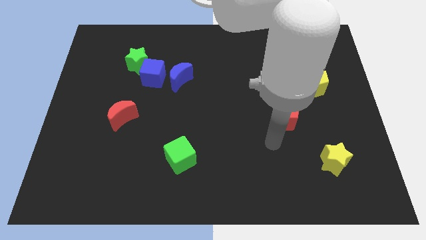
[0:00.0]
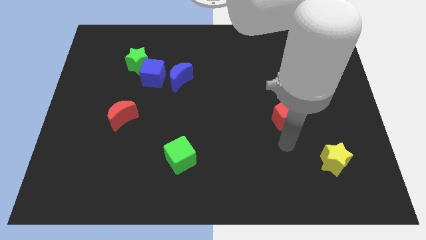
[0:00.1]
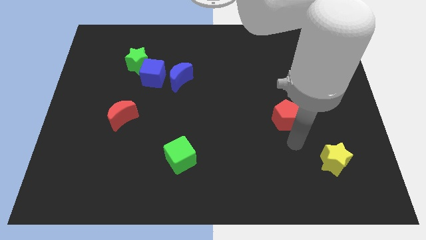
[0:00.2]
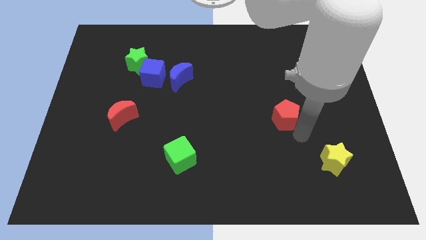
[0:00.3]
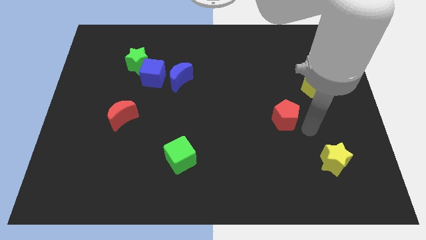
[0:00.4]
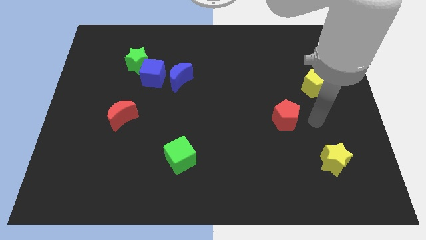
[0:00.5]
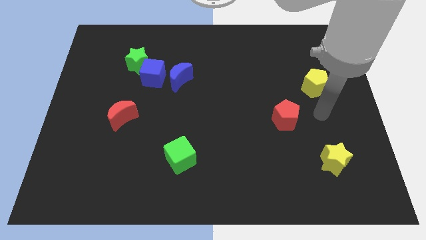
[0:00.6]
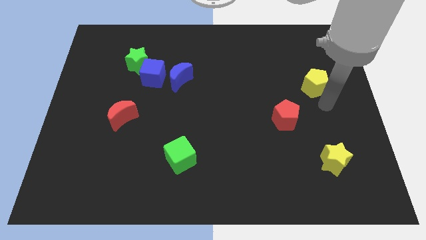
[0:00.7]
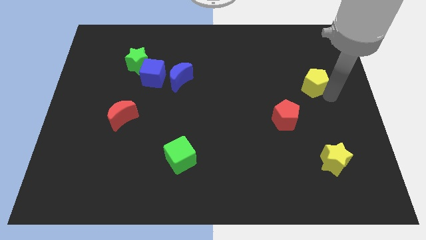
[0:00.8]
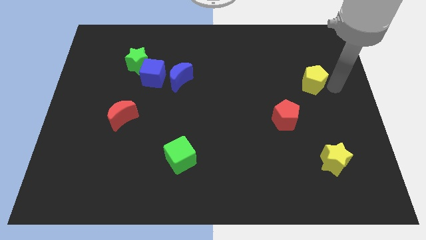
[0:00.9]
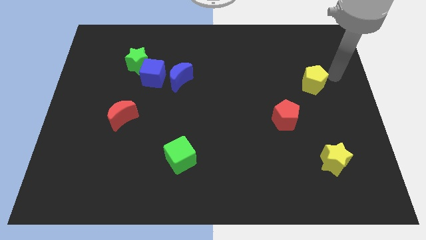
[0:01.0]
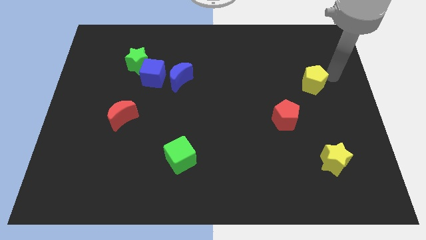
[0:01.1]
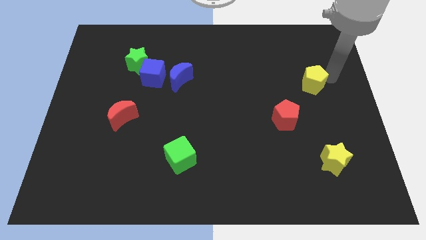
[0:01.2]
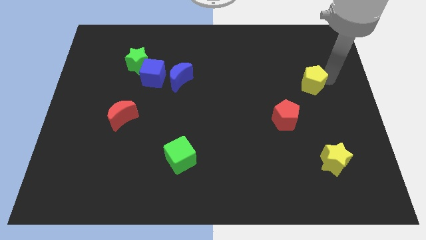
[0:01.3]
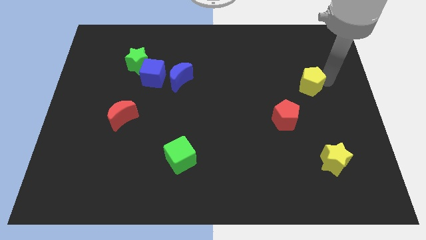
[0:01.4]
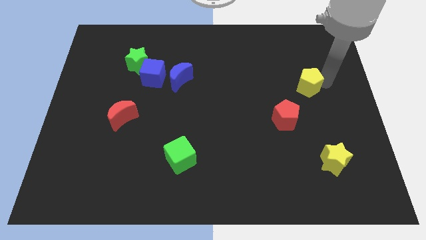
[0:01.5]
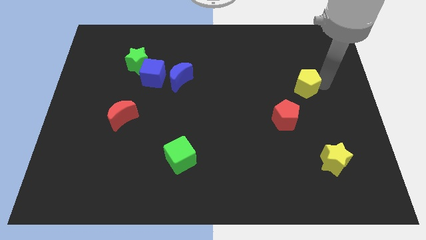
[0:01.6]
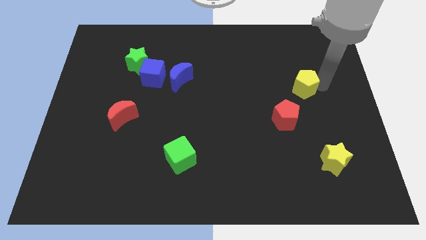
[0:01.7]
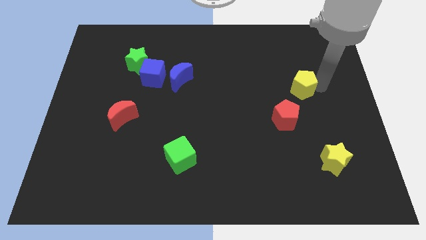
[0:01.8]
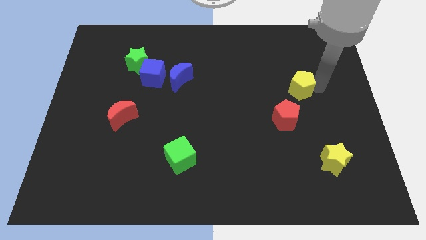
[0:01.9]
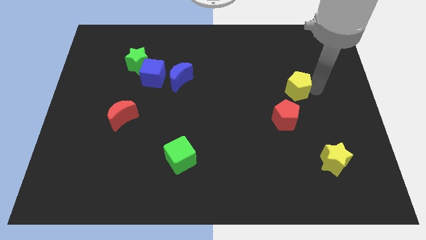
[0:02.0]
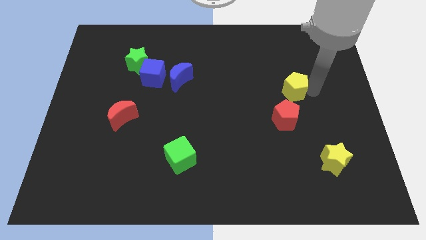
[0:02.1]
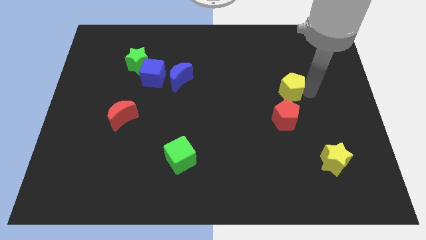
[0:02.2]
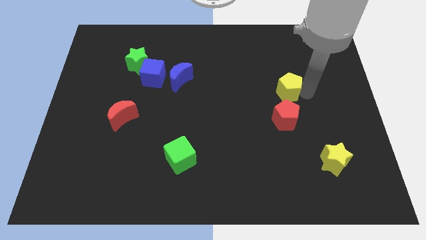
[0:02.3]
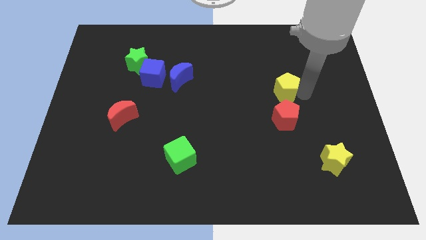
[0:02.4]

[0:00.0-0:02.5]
push the yellow pentagon to the left somewhat

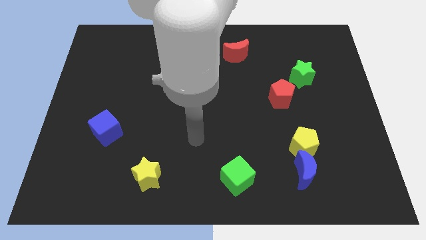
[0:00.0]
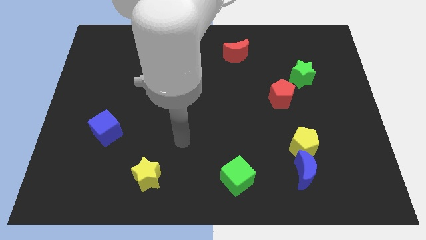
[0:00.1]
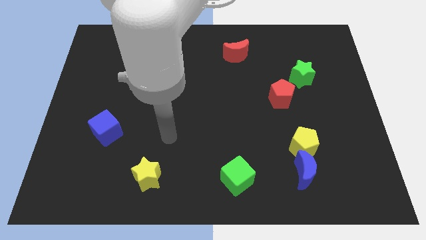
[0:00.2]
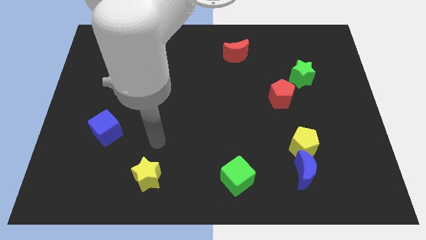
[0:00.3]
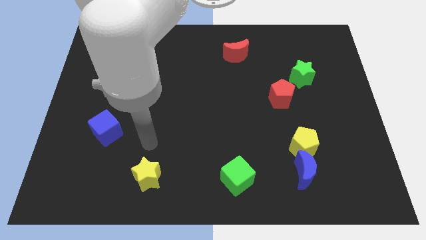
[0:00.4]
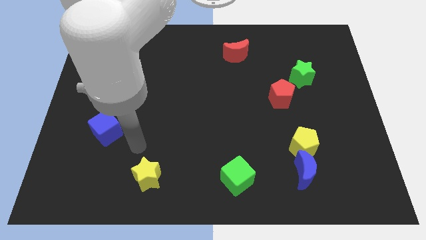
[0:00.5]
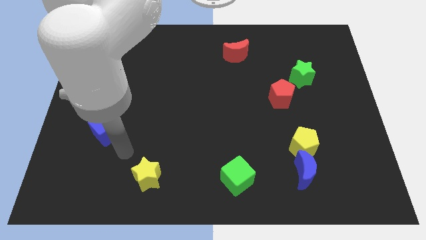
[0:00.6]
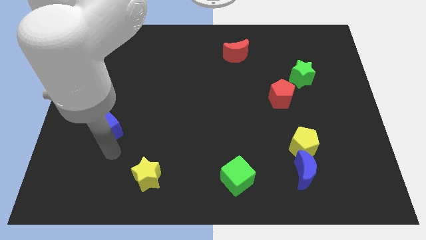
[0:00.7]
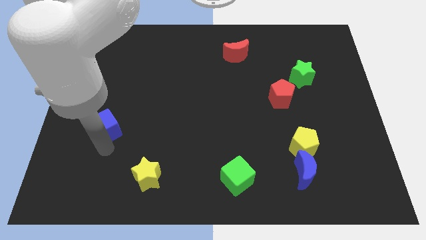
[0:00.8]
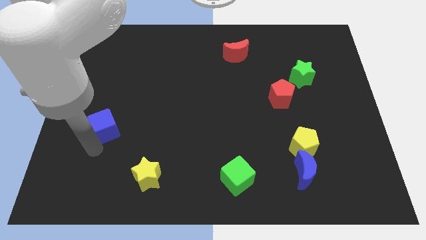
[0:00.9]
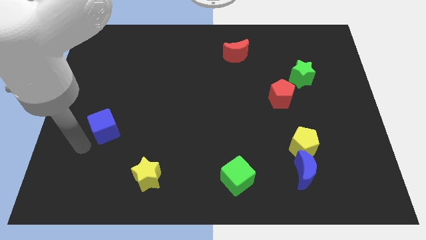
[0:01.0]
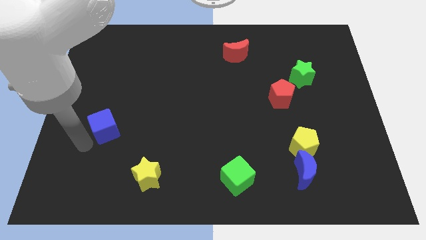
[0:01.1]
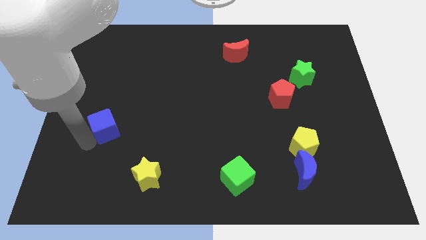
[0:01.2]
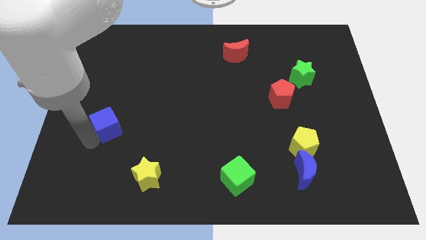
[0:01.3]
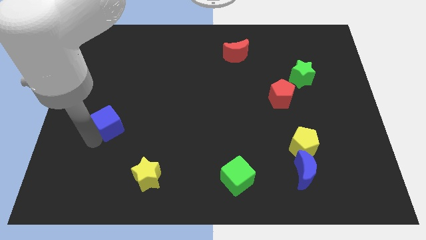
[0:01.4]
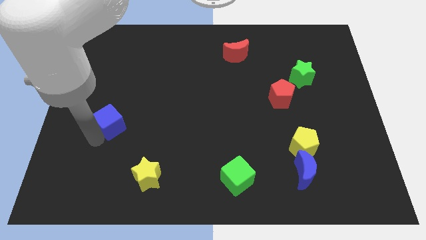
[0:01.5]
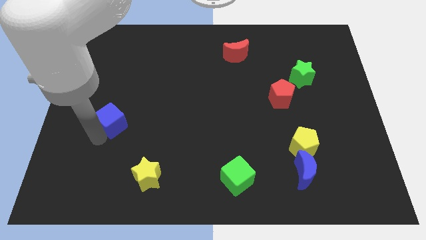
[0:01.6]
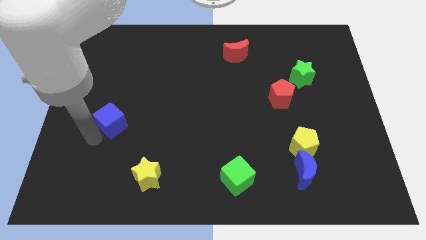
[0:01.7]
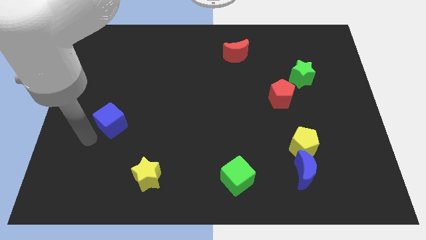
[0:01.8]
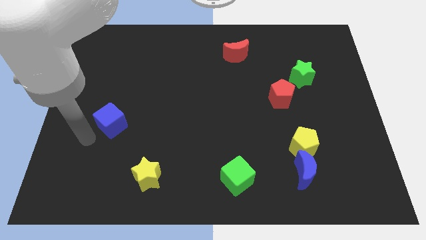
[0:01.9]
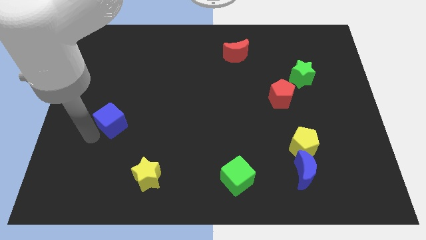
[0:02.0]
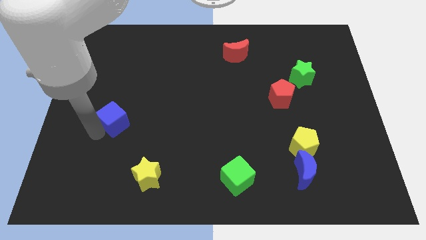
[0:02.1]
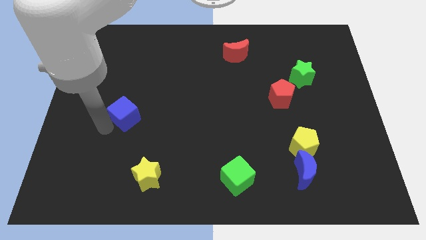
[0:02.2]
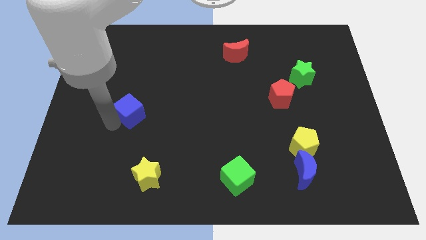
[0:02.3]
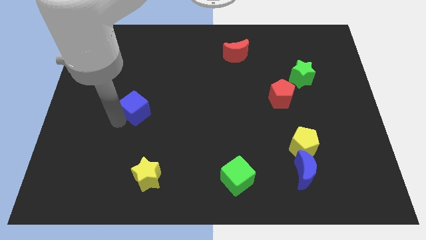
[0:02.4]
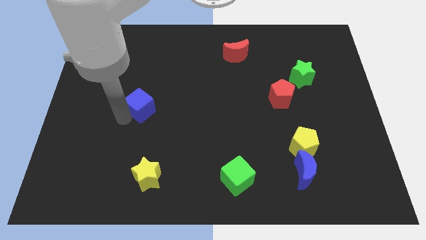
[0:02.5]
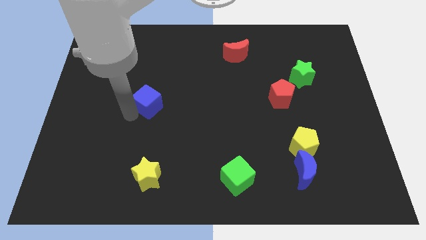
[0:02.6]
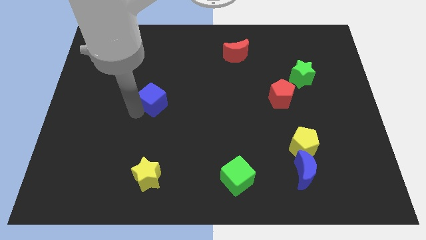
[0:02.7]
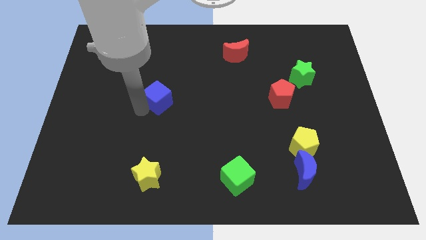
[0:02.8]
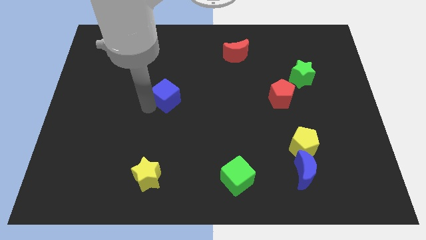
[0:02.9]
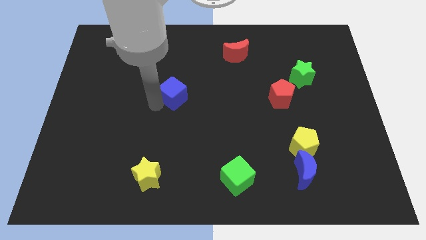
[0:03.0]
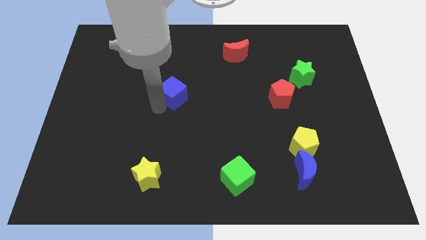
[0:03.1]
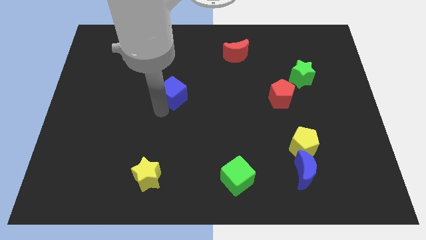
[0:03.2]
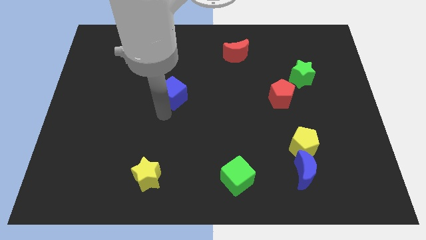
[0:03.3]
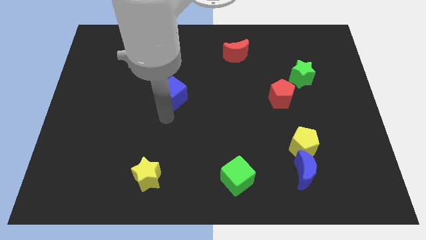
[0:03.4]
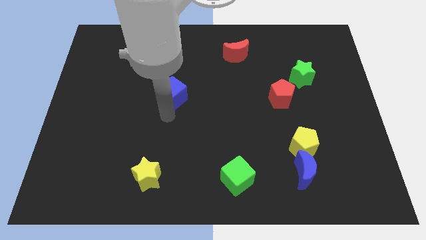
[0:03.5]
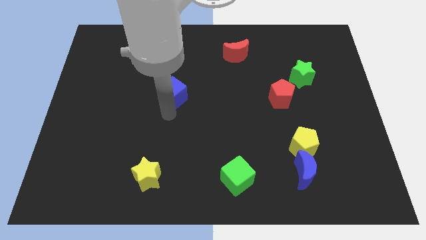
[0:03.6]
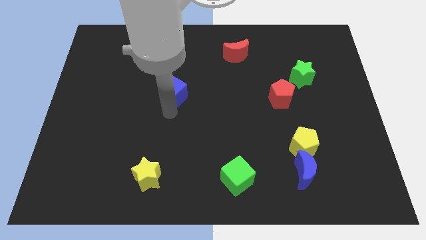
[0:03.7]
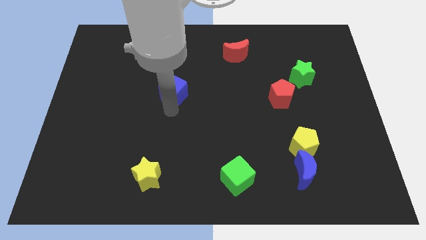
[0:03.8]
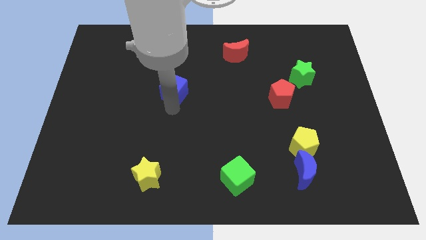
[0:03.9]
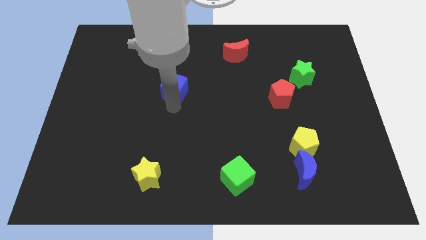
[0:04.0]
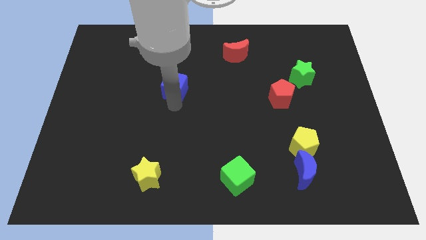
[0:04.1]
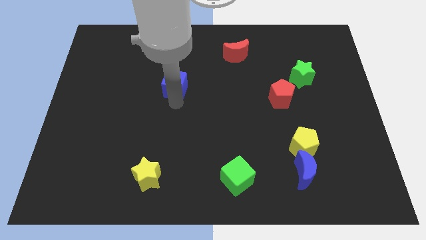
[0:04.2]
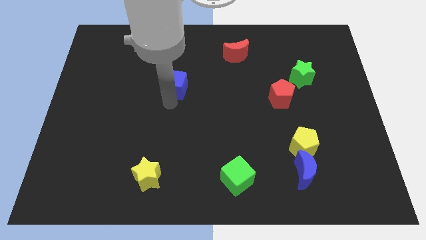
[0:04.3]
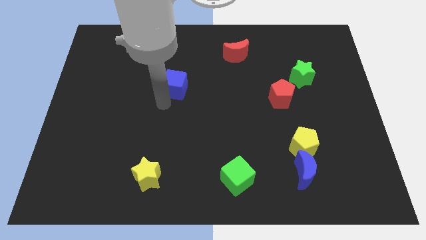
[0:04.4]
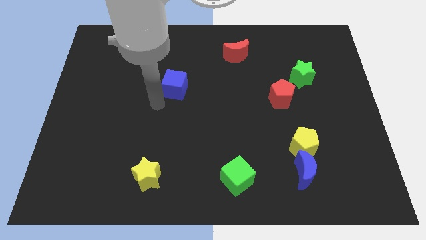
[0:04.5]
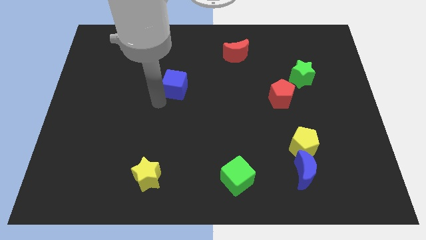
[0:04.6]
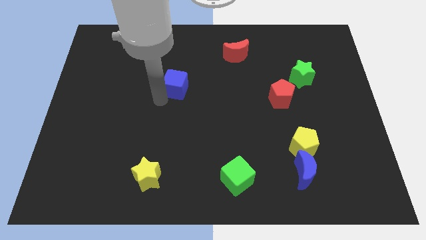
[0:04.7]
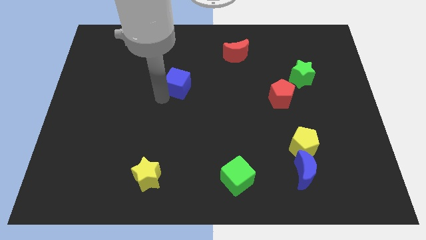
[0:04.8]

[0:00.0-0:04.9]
move the blue cube diagonally up and right

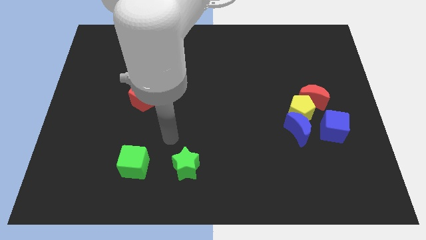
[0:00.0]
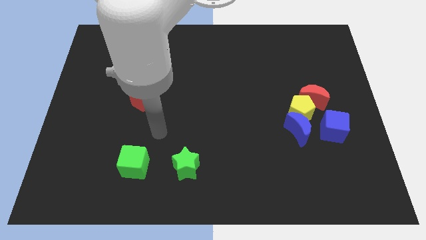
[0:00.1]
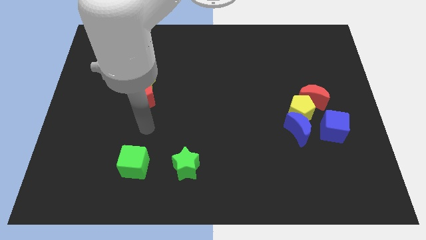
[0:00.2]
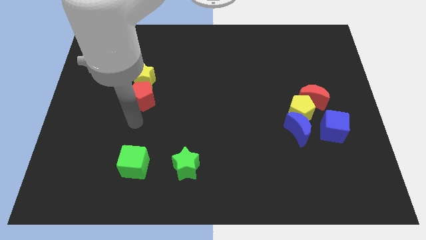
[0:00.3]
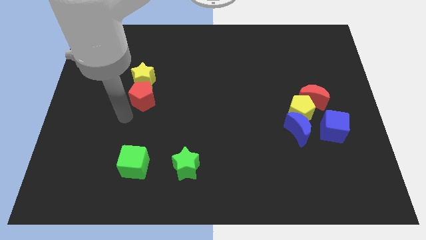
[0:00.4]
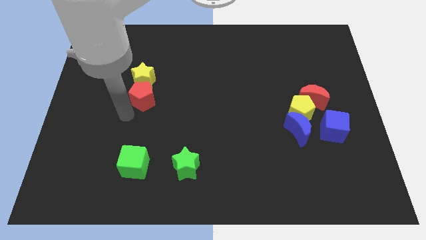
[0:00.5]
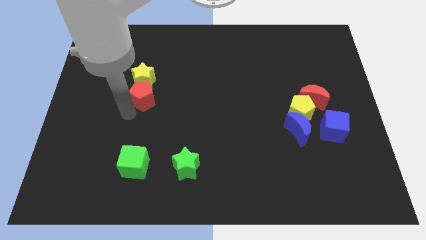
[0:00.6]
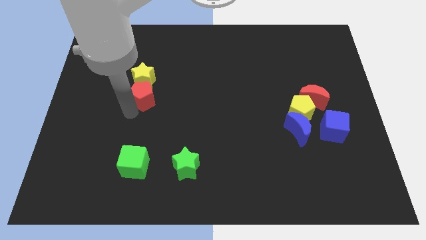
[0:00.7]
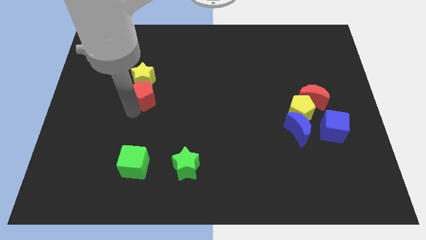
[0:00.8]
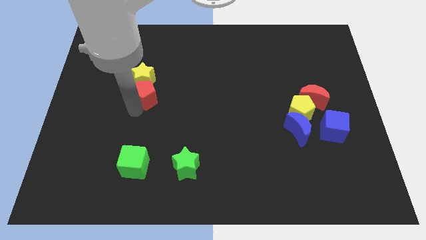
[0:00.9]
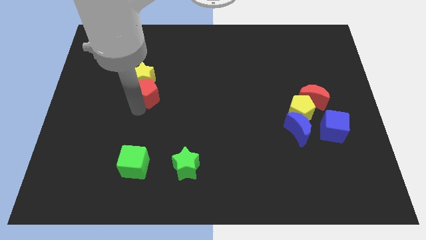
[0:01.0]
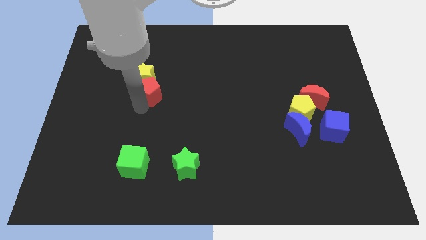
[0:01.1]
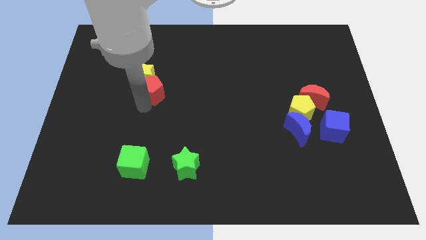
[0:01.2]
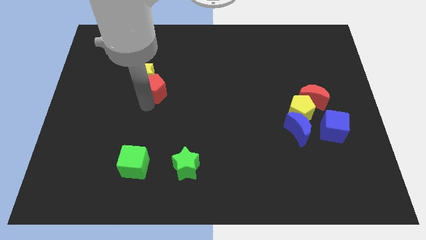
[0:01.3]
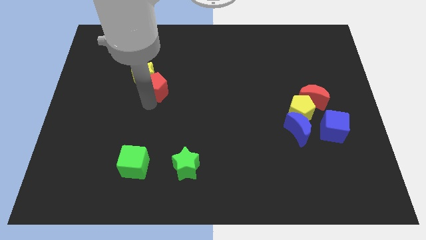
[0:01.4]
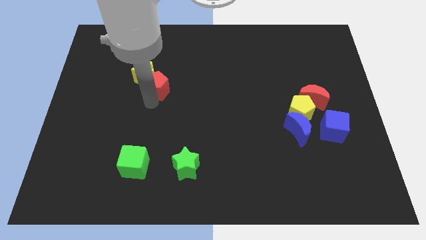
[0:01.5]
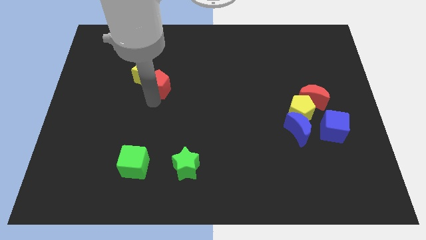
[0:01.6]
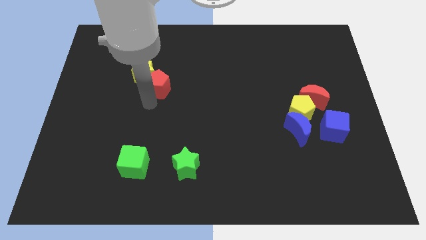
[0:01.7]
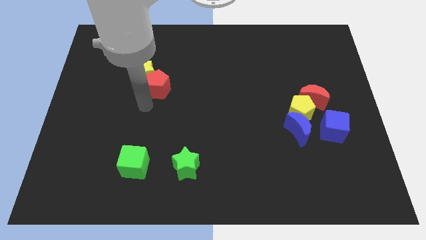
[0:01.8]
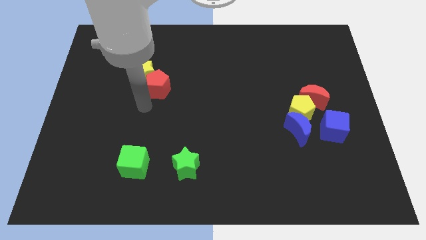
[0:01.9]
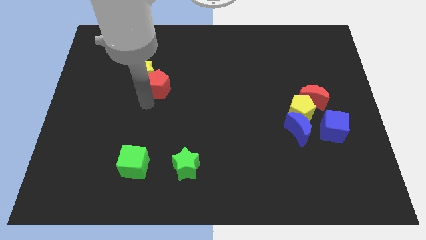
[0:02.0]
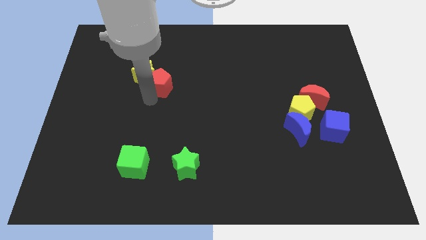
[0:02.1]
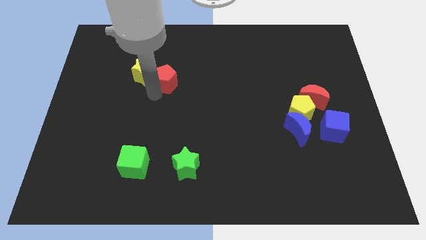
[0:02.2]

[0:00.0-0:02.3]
slightly move the red pentagon diagonally upwards and right
